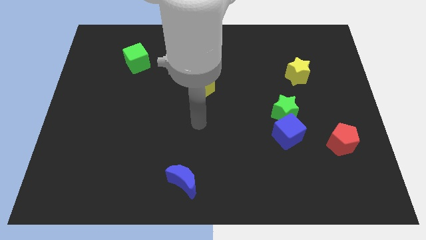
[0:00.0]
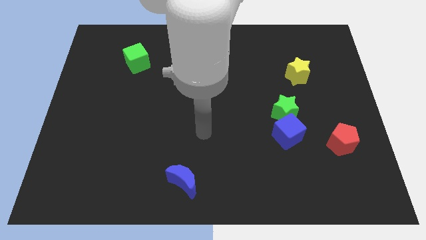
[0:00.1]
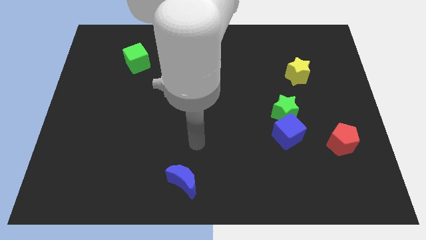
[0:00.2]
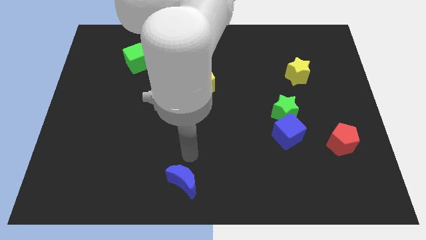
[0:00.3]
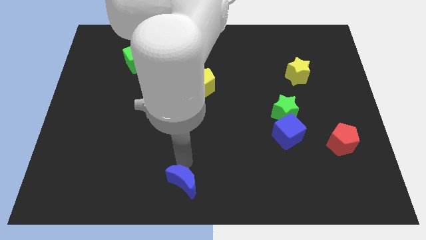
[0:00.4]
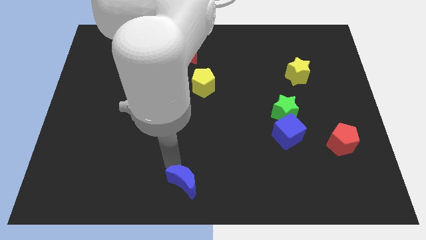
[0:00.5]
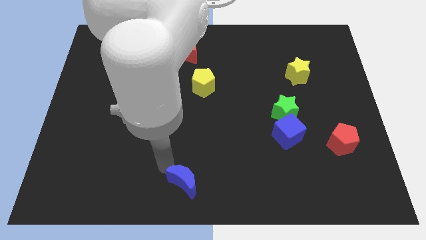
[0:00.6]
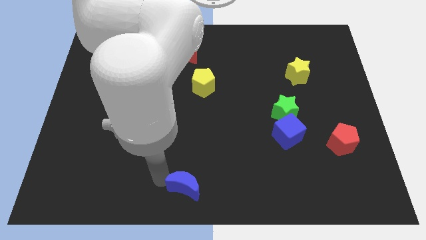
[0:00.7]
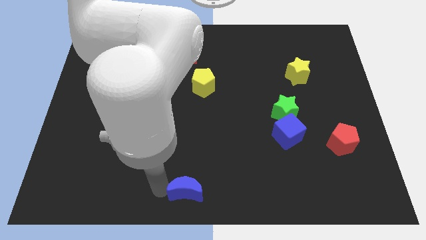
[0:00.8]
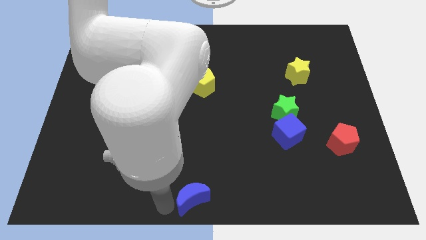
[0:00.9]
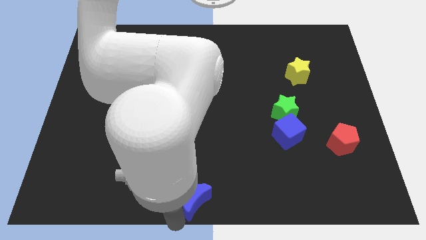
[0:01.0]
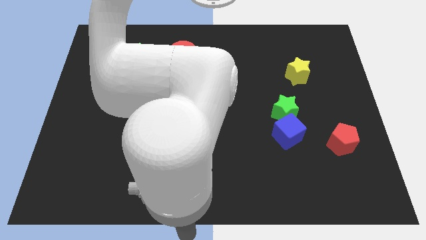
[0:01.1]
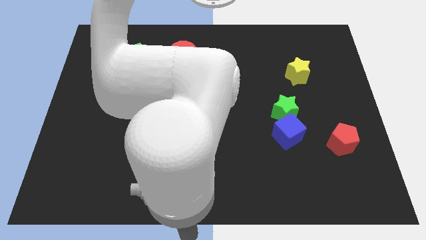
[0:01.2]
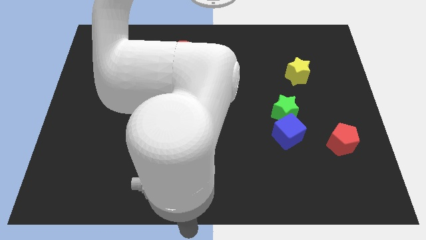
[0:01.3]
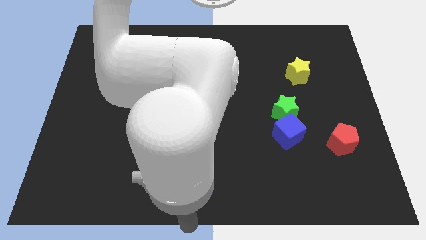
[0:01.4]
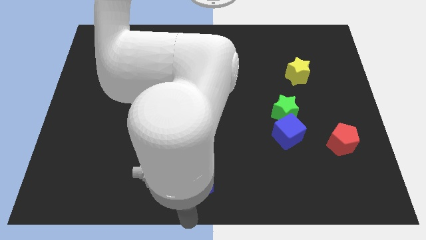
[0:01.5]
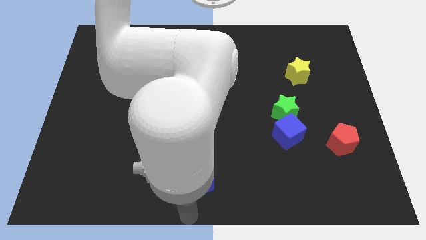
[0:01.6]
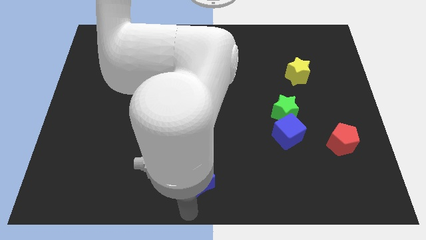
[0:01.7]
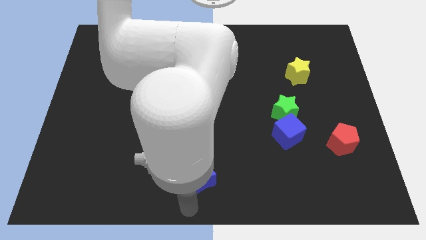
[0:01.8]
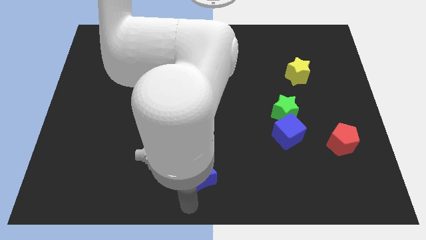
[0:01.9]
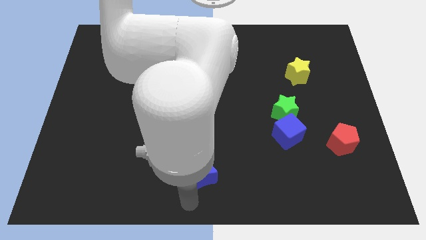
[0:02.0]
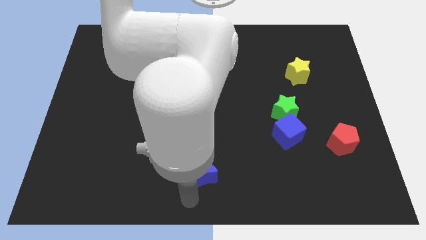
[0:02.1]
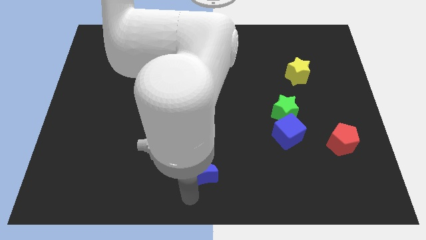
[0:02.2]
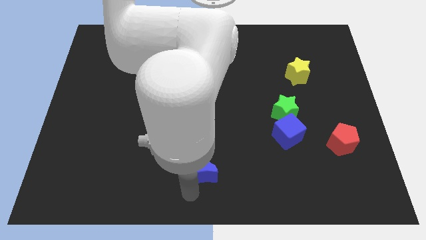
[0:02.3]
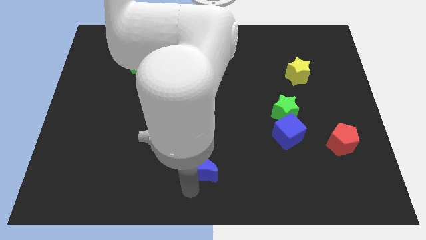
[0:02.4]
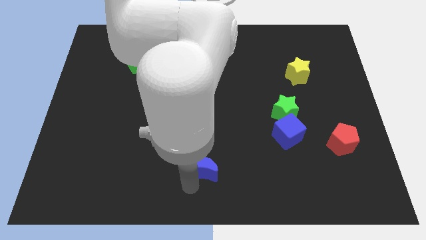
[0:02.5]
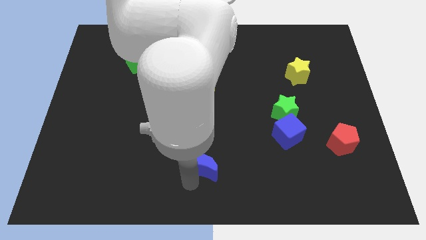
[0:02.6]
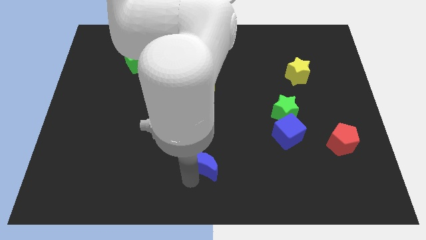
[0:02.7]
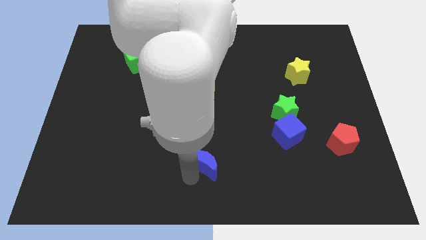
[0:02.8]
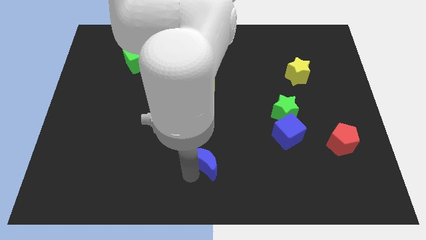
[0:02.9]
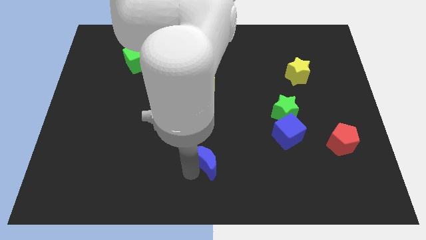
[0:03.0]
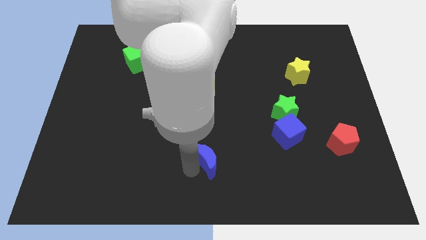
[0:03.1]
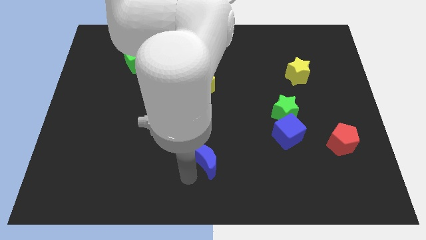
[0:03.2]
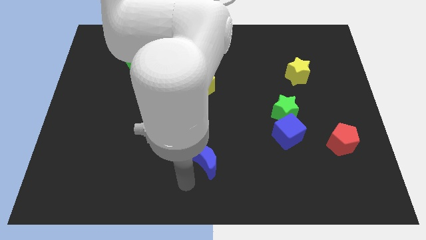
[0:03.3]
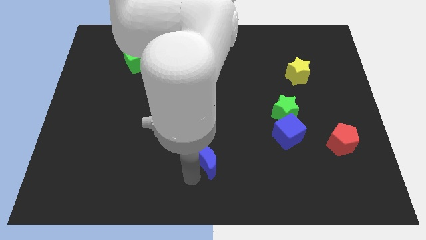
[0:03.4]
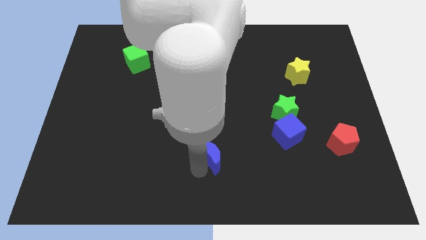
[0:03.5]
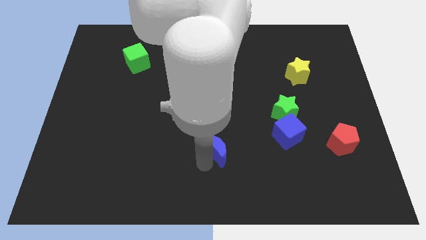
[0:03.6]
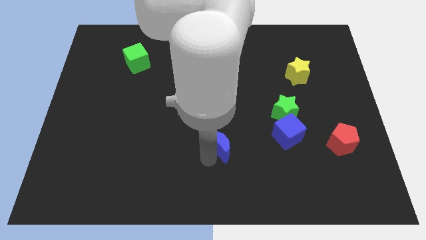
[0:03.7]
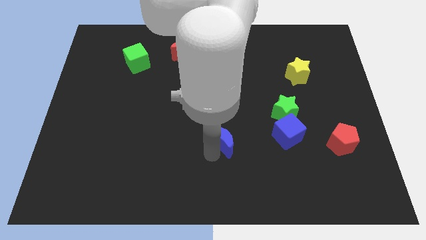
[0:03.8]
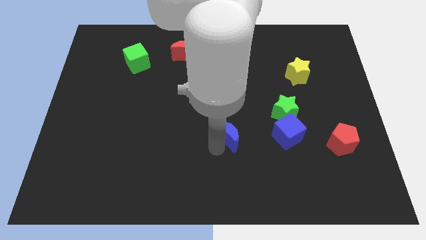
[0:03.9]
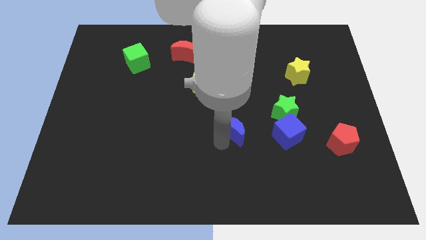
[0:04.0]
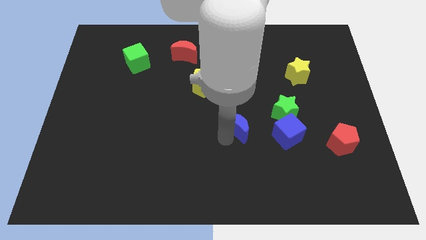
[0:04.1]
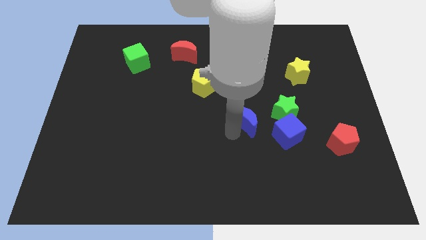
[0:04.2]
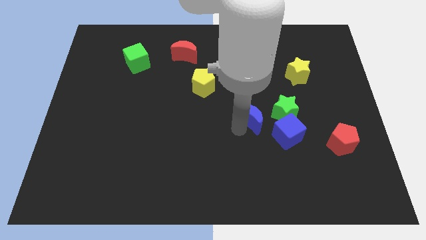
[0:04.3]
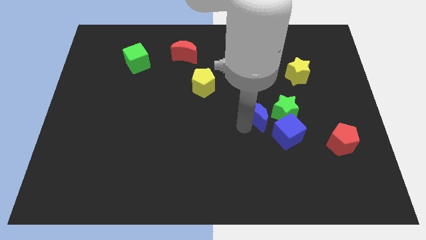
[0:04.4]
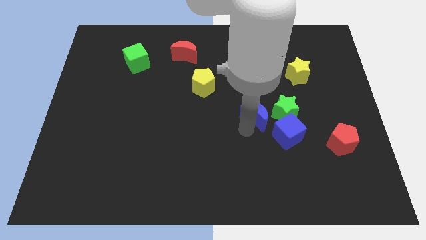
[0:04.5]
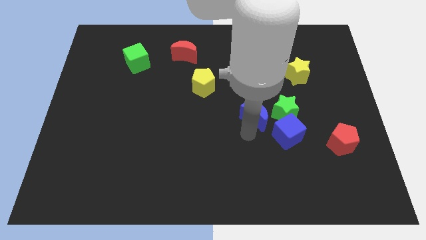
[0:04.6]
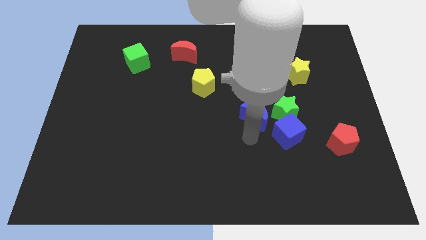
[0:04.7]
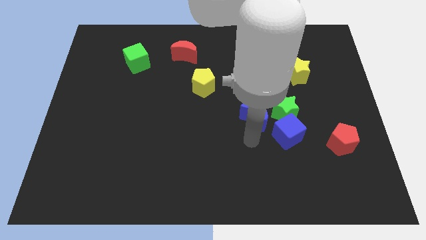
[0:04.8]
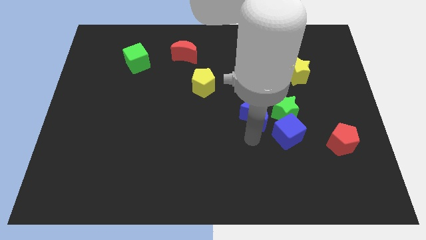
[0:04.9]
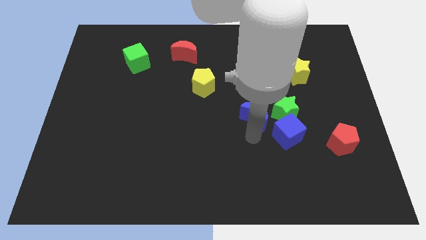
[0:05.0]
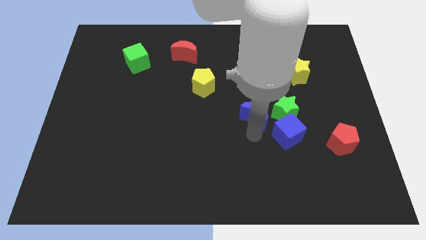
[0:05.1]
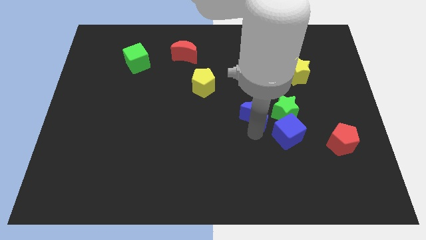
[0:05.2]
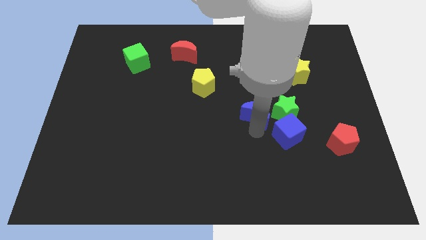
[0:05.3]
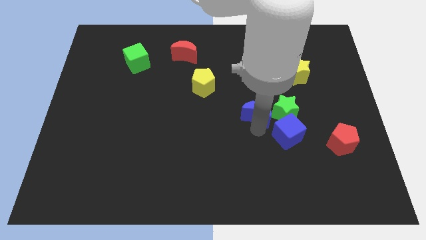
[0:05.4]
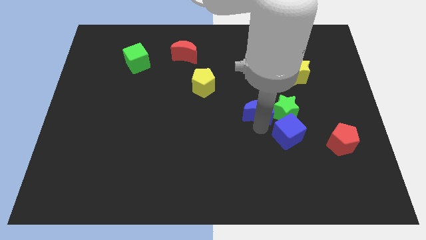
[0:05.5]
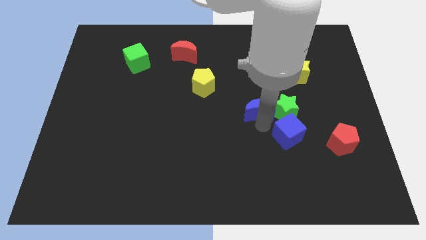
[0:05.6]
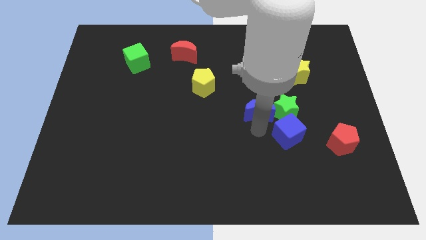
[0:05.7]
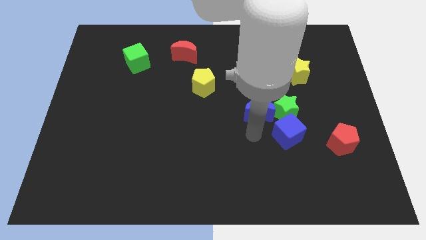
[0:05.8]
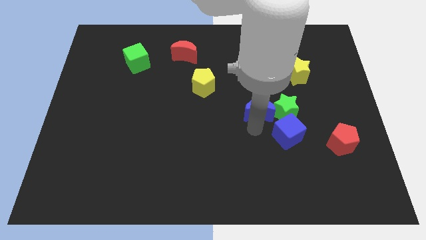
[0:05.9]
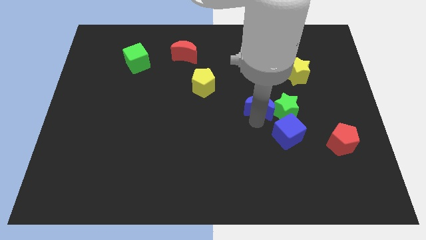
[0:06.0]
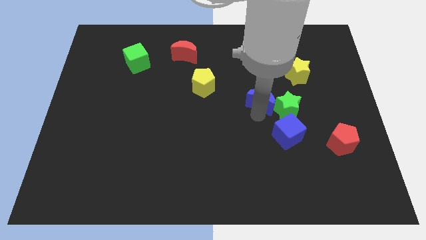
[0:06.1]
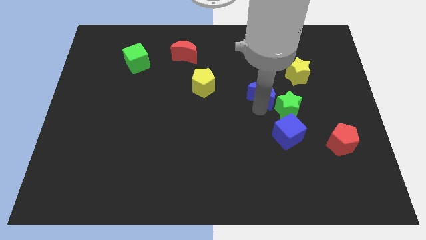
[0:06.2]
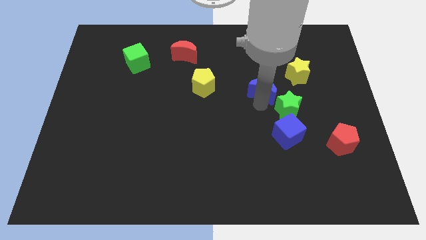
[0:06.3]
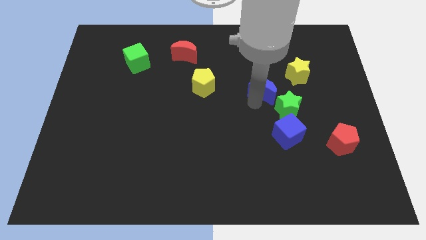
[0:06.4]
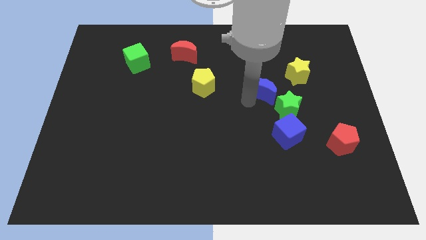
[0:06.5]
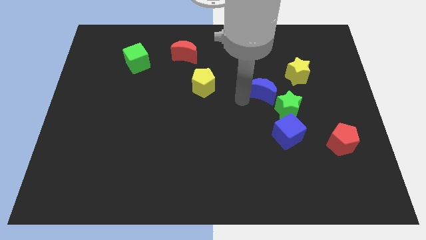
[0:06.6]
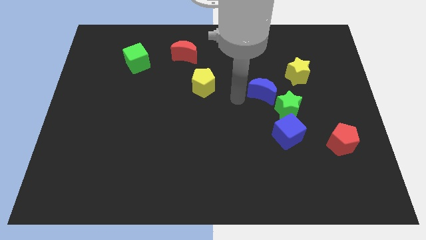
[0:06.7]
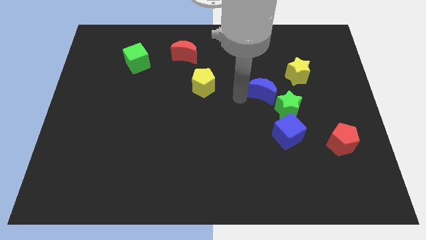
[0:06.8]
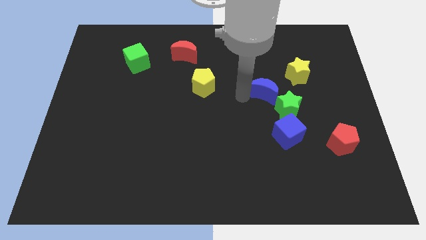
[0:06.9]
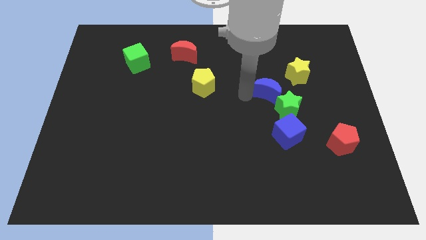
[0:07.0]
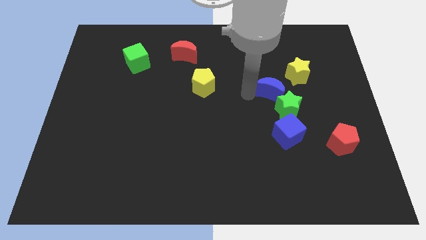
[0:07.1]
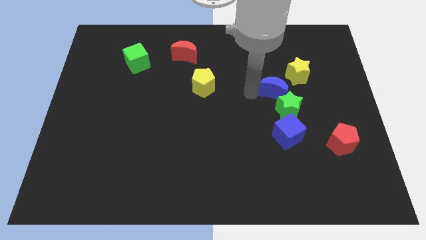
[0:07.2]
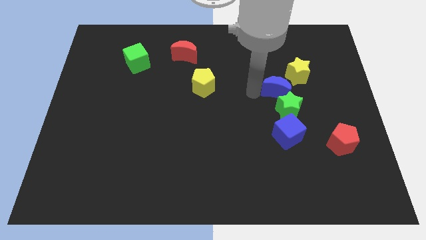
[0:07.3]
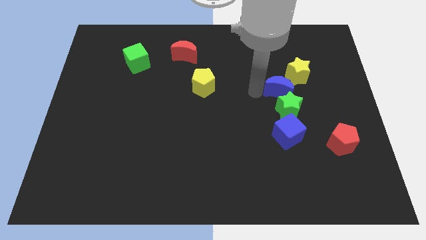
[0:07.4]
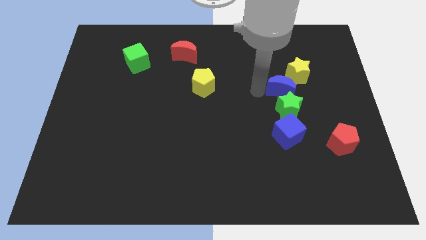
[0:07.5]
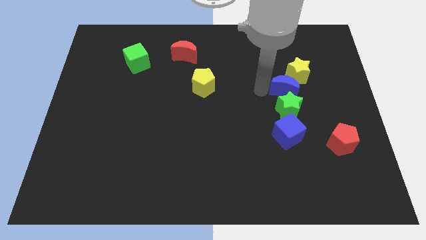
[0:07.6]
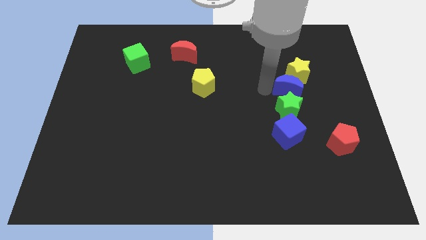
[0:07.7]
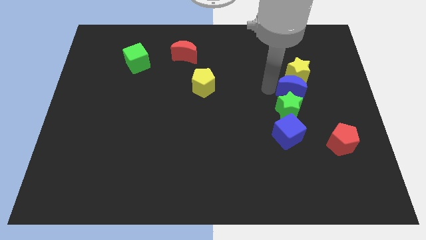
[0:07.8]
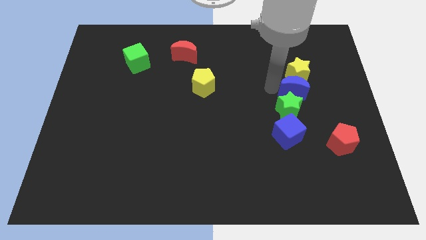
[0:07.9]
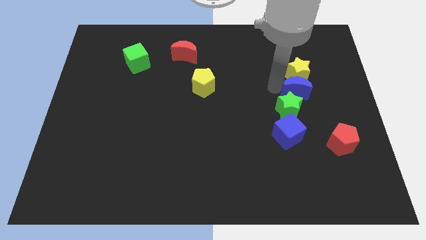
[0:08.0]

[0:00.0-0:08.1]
slide the blue moon to the bottom right side of the yellow star
